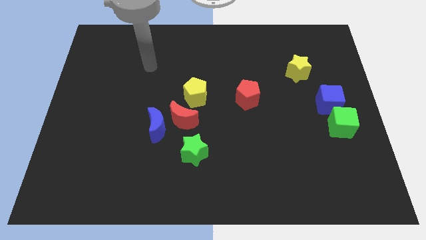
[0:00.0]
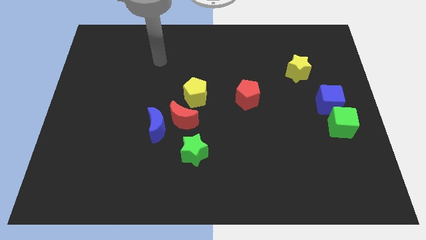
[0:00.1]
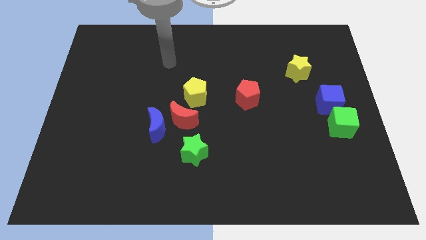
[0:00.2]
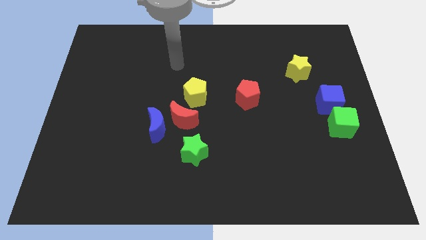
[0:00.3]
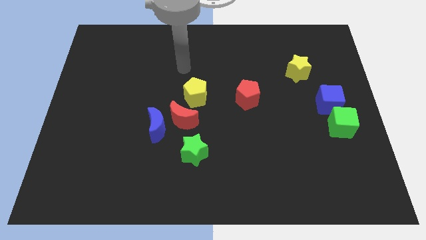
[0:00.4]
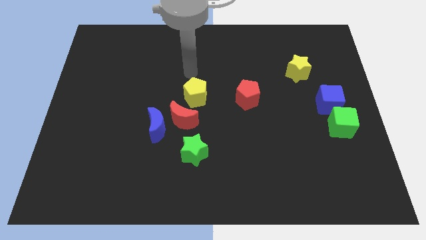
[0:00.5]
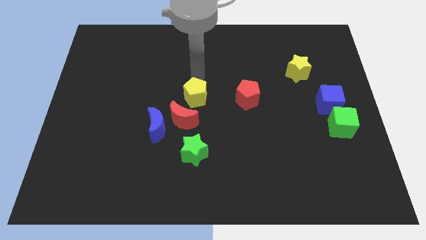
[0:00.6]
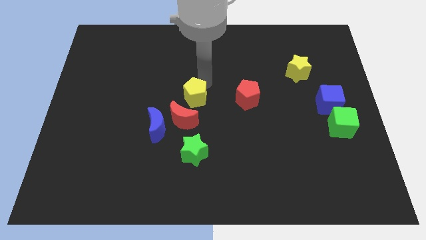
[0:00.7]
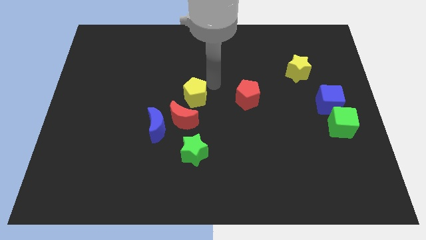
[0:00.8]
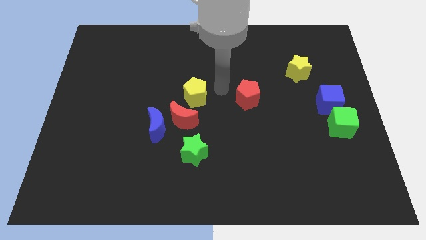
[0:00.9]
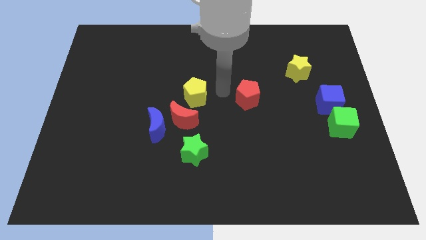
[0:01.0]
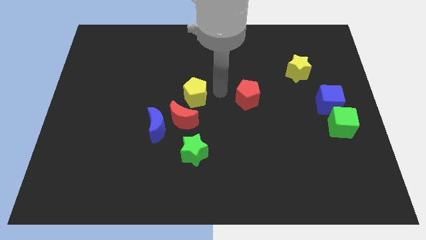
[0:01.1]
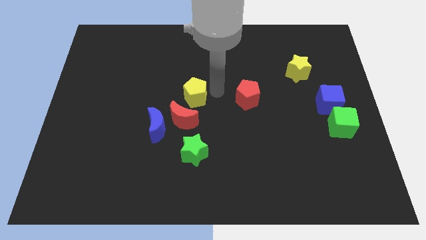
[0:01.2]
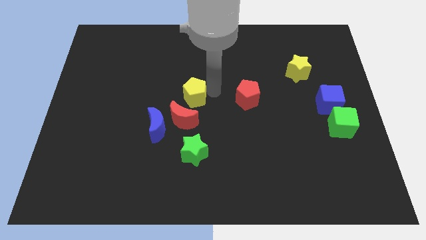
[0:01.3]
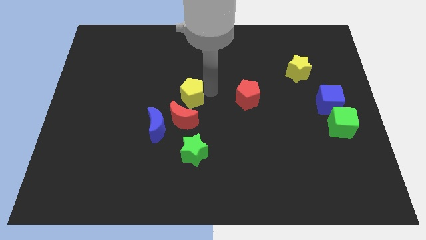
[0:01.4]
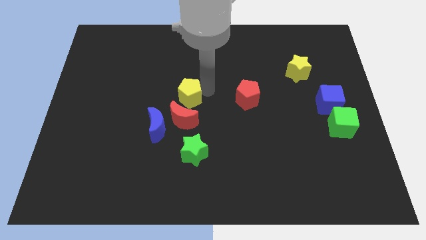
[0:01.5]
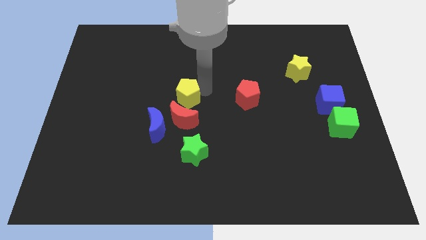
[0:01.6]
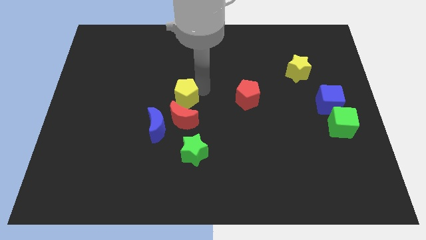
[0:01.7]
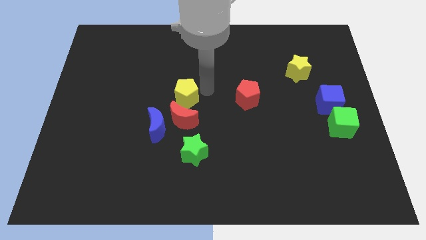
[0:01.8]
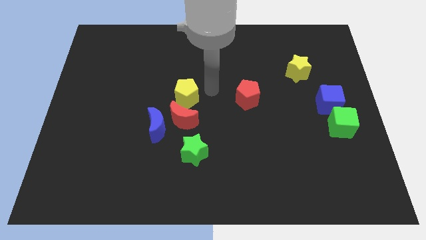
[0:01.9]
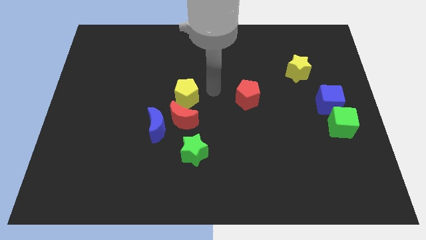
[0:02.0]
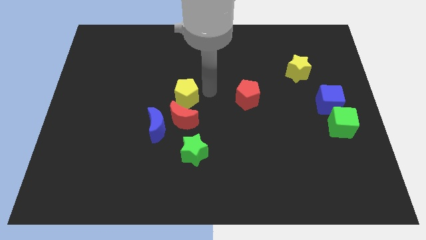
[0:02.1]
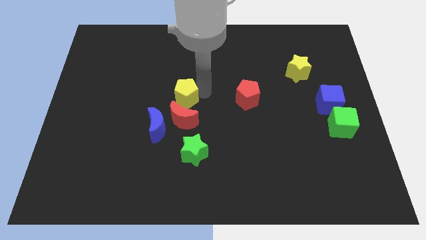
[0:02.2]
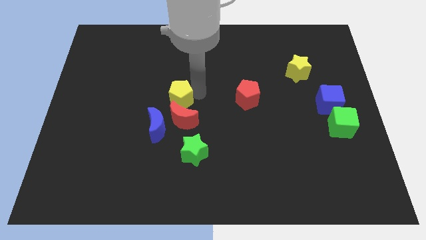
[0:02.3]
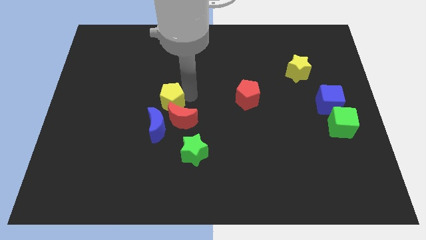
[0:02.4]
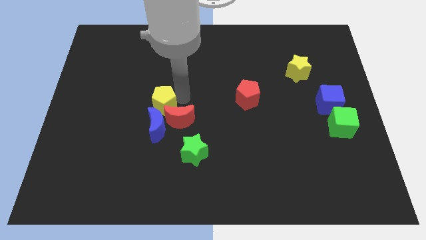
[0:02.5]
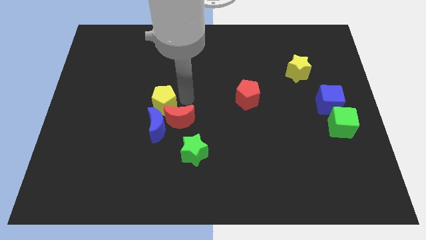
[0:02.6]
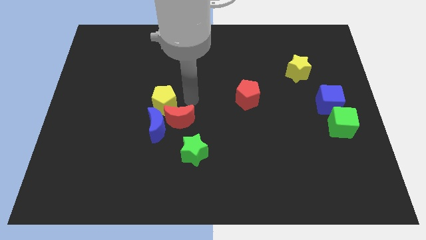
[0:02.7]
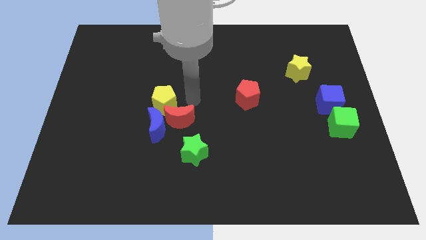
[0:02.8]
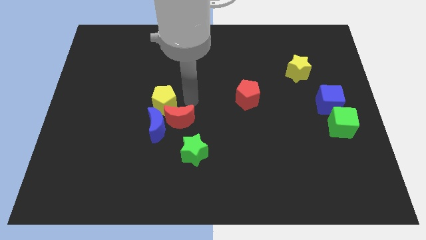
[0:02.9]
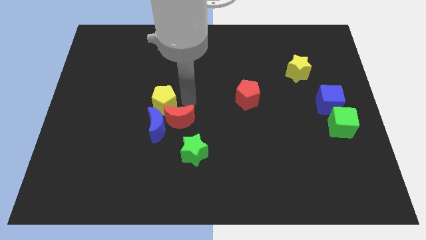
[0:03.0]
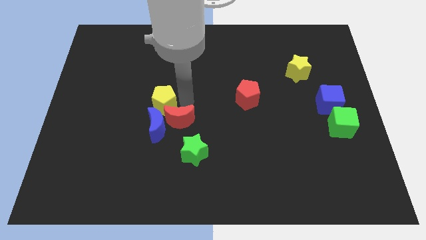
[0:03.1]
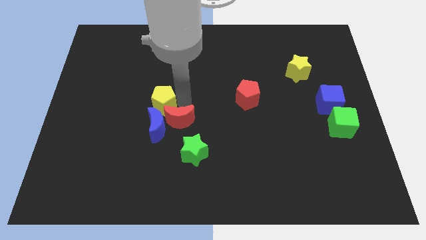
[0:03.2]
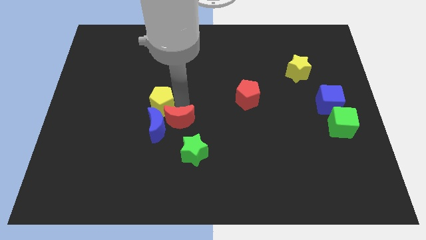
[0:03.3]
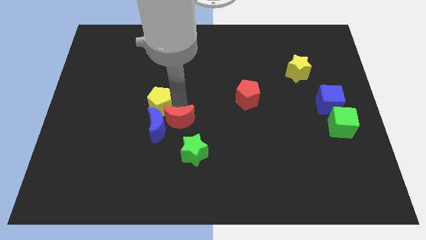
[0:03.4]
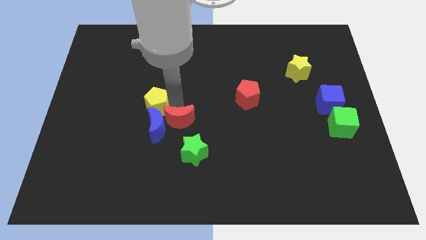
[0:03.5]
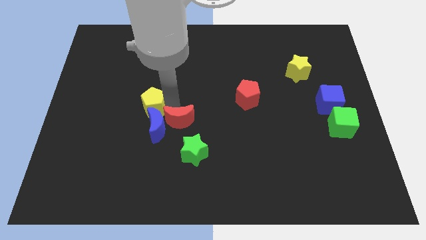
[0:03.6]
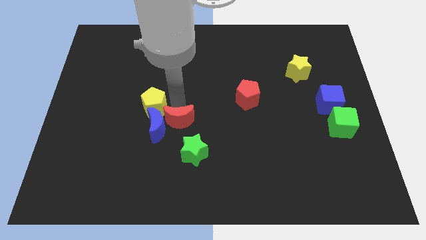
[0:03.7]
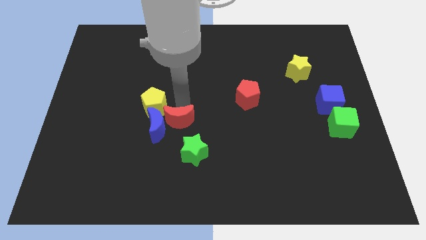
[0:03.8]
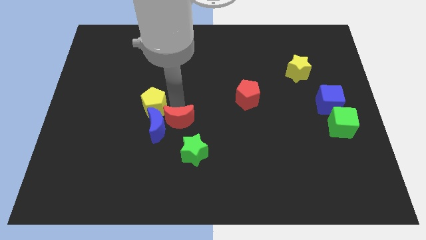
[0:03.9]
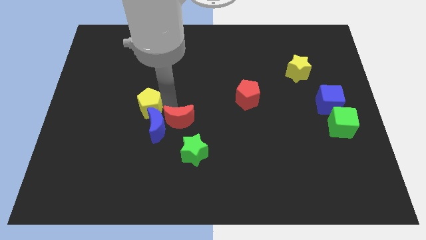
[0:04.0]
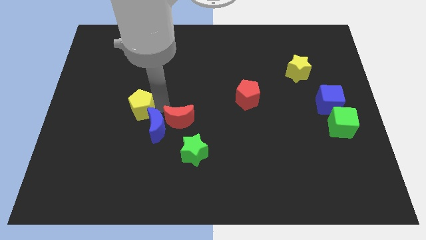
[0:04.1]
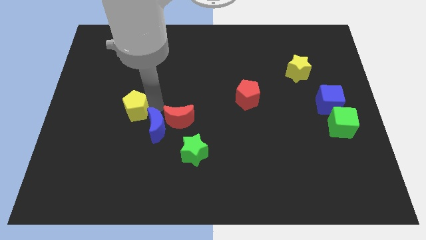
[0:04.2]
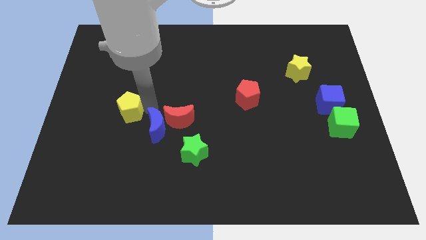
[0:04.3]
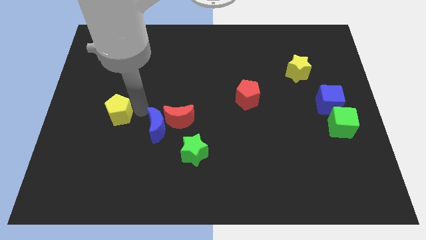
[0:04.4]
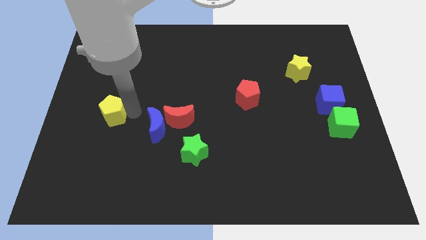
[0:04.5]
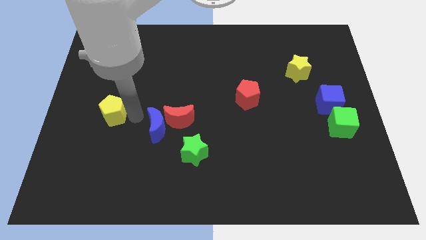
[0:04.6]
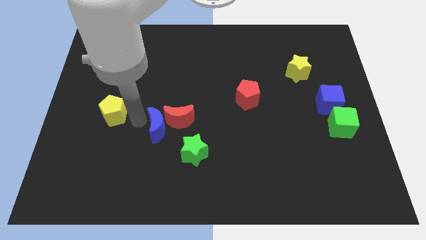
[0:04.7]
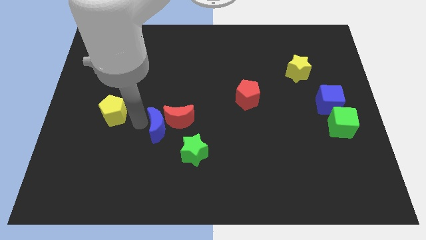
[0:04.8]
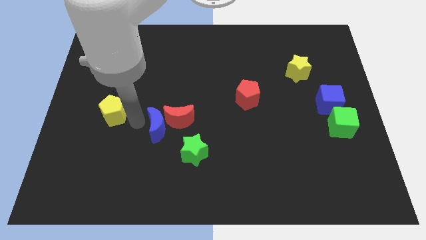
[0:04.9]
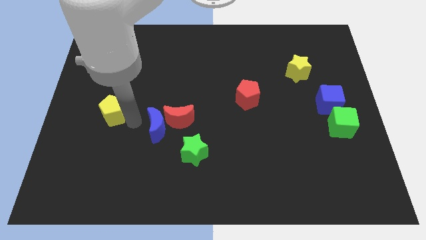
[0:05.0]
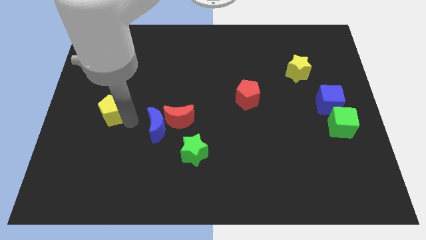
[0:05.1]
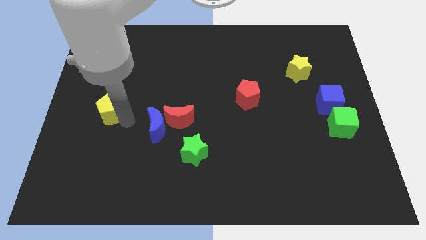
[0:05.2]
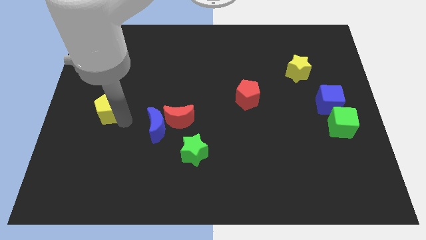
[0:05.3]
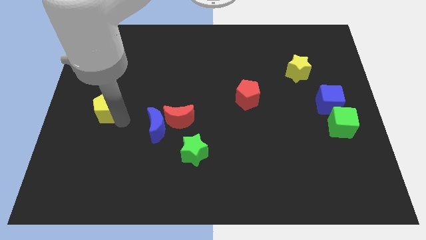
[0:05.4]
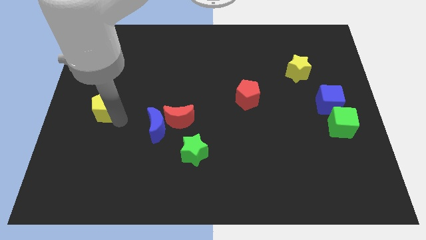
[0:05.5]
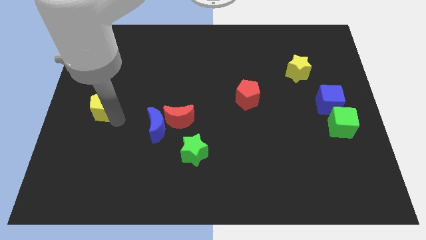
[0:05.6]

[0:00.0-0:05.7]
slide the yellow pentagon to the left side of the board
